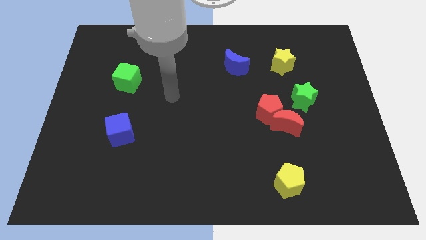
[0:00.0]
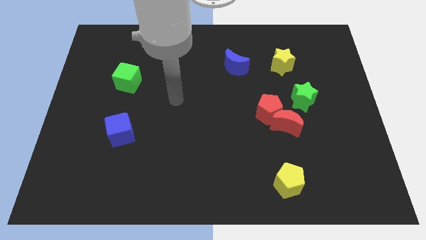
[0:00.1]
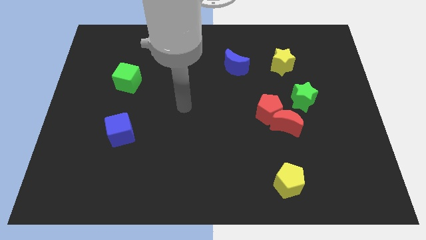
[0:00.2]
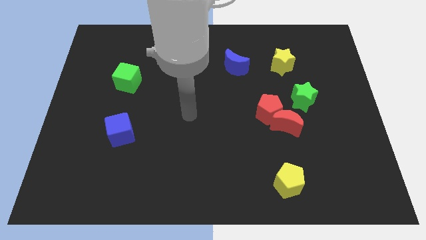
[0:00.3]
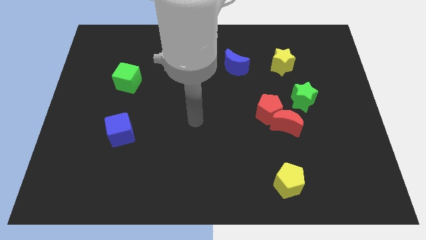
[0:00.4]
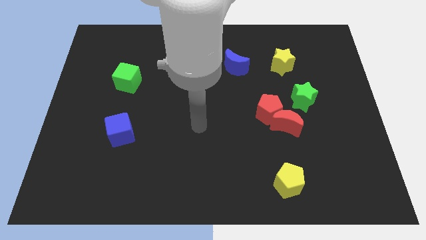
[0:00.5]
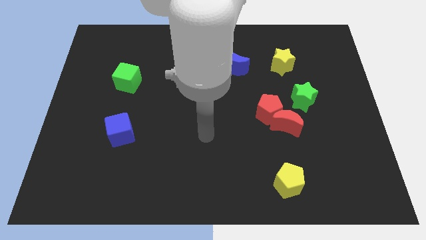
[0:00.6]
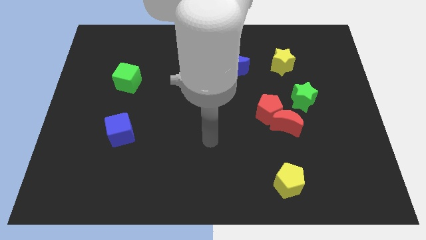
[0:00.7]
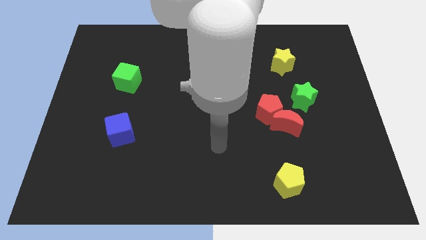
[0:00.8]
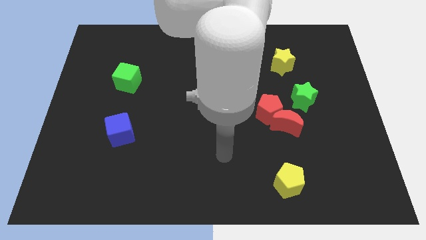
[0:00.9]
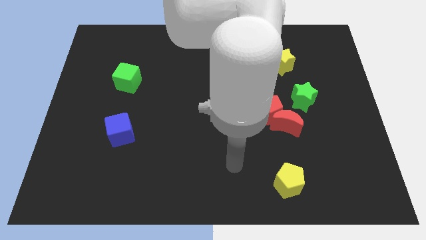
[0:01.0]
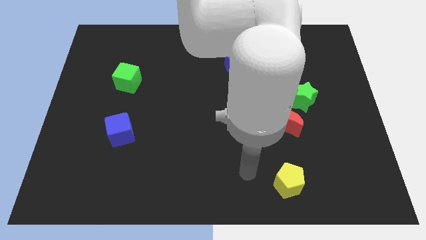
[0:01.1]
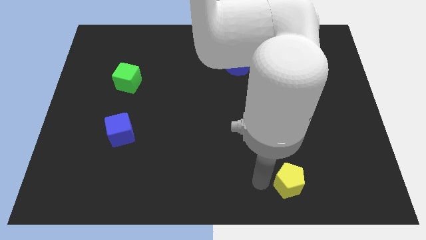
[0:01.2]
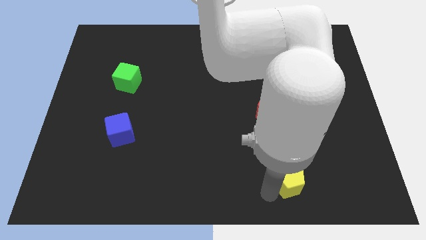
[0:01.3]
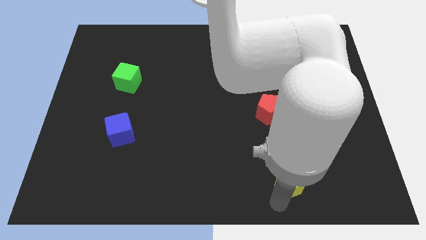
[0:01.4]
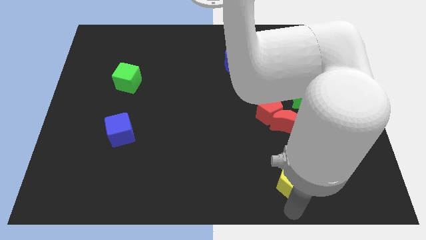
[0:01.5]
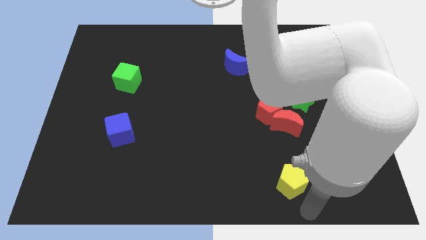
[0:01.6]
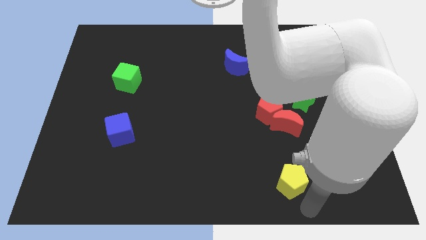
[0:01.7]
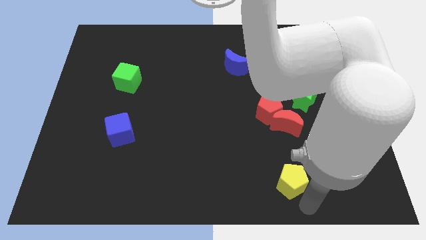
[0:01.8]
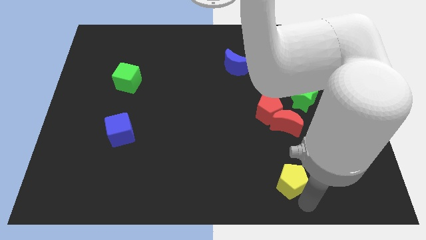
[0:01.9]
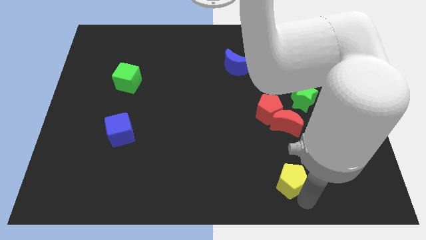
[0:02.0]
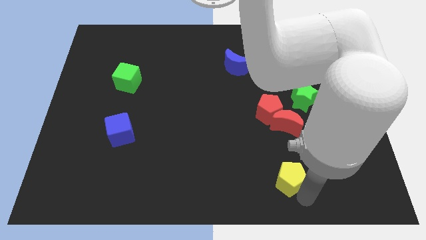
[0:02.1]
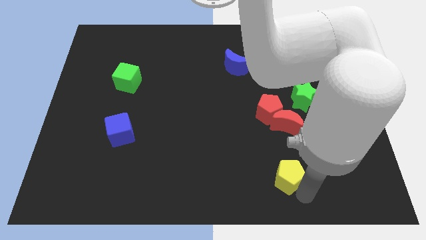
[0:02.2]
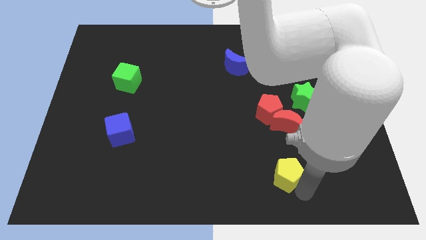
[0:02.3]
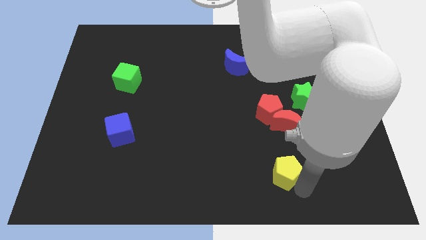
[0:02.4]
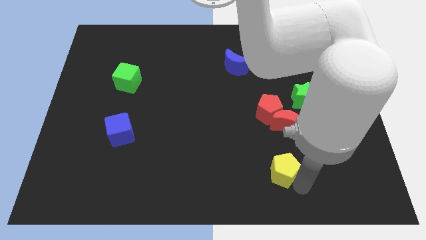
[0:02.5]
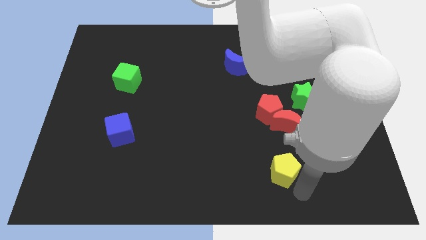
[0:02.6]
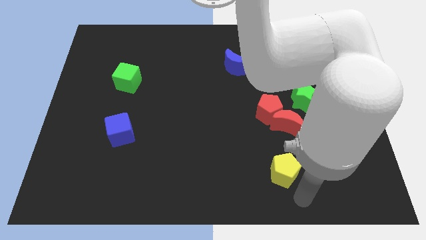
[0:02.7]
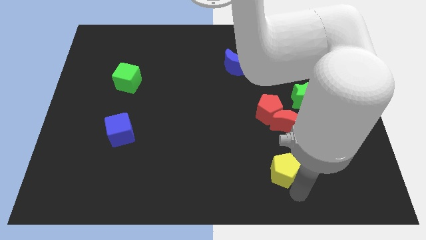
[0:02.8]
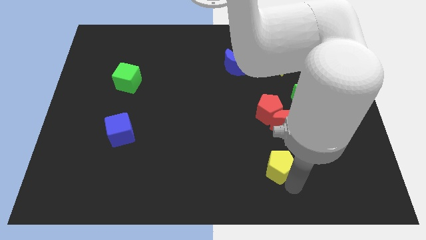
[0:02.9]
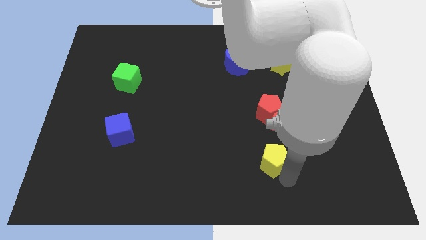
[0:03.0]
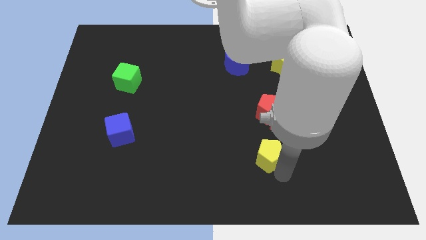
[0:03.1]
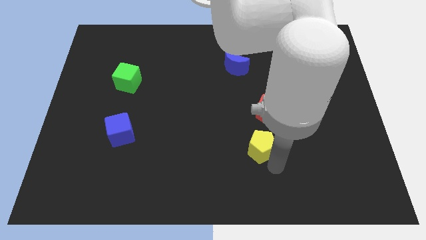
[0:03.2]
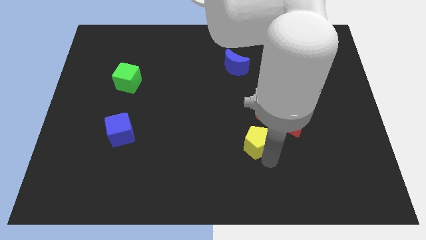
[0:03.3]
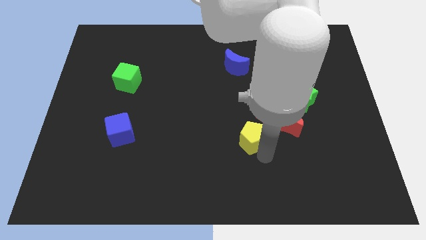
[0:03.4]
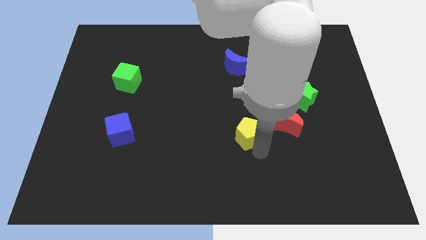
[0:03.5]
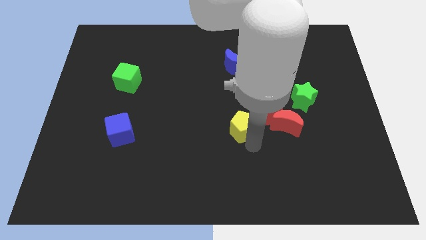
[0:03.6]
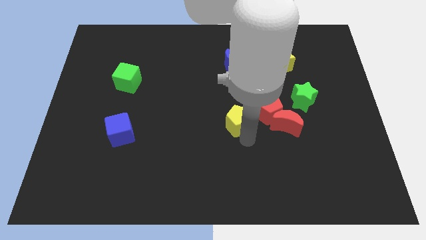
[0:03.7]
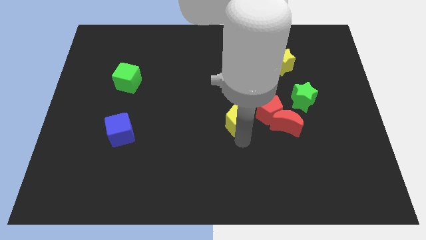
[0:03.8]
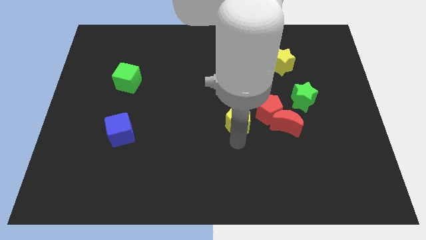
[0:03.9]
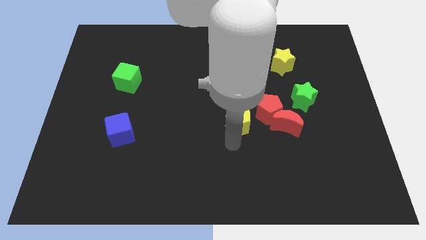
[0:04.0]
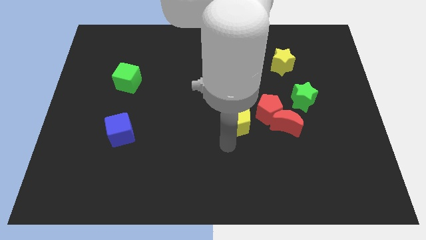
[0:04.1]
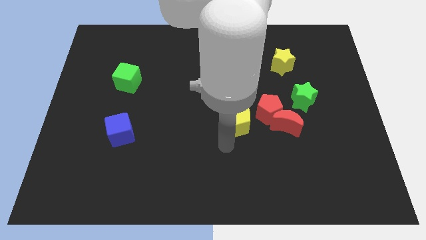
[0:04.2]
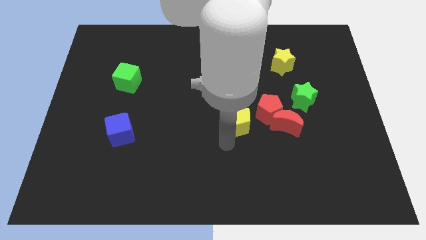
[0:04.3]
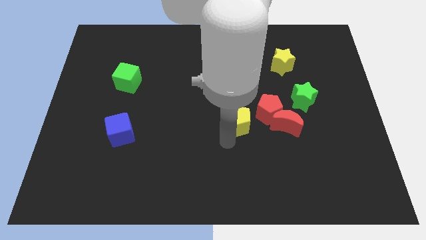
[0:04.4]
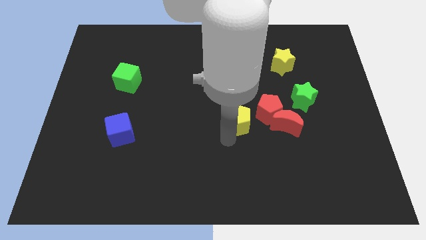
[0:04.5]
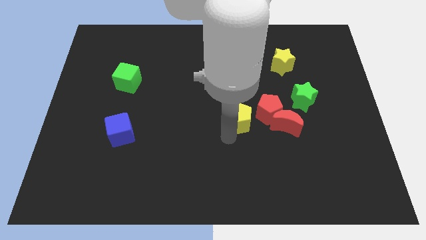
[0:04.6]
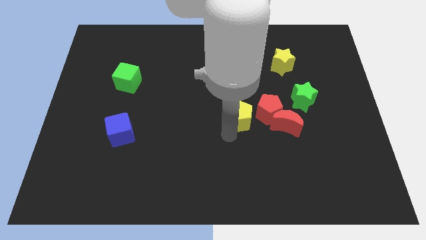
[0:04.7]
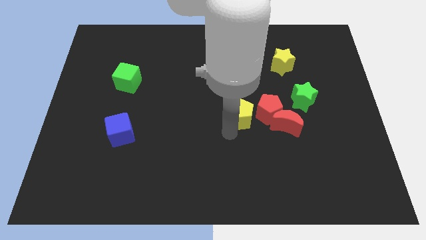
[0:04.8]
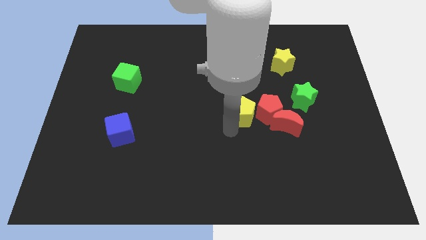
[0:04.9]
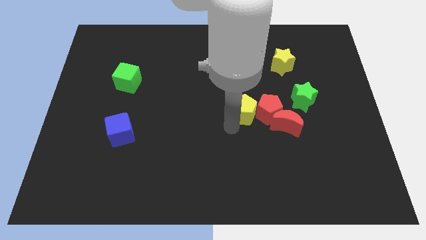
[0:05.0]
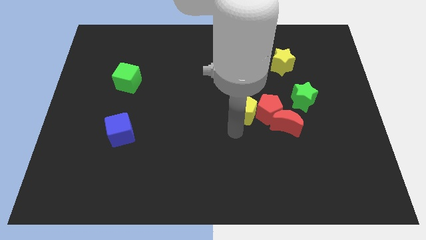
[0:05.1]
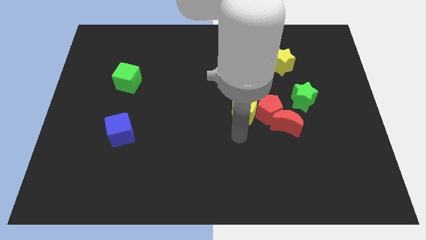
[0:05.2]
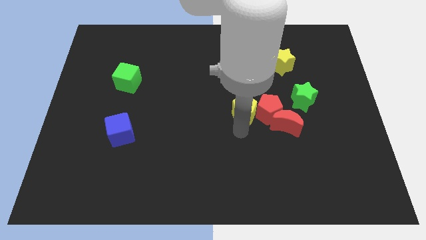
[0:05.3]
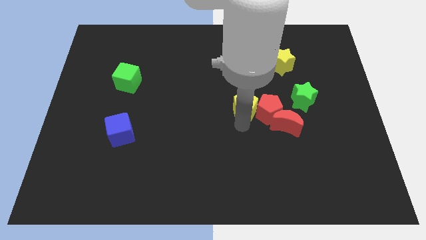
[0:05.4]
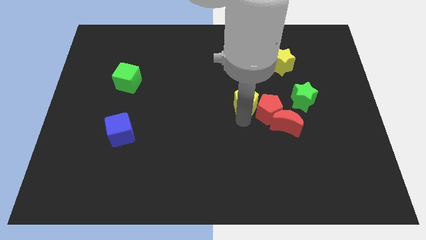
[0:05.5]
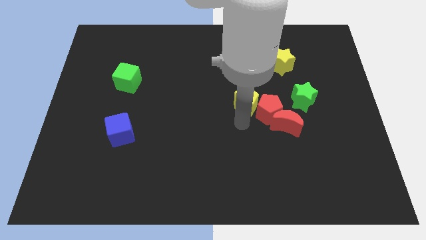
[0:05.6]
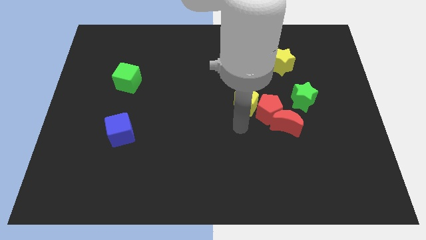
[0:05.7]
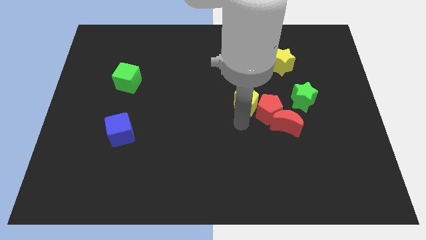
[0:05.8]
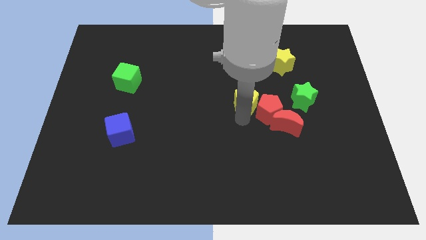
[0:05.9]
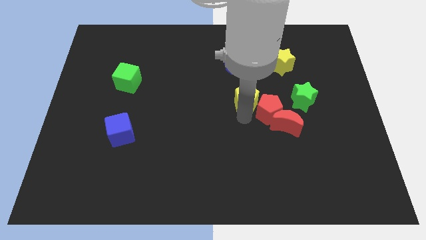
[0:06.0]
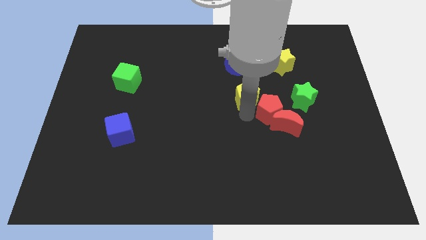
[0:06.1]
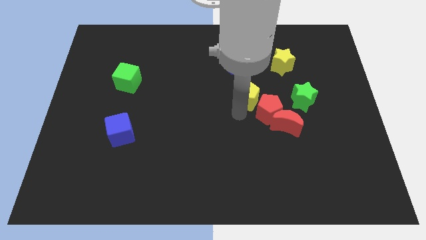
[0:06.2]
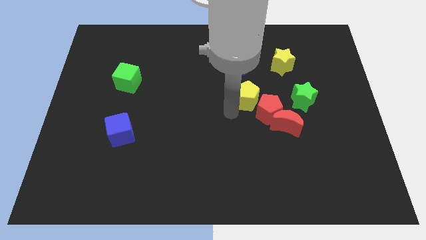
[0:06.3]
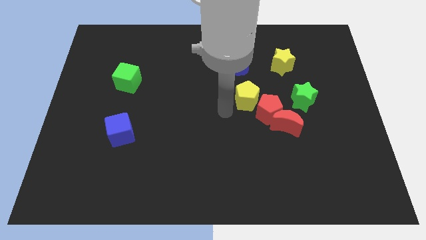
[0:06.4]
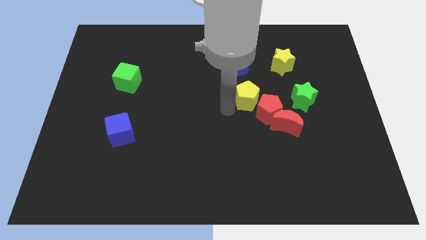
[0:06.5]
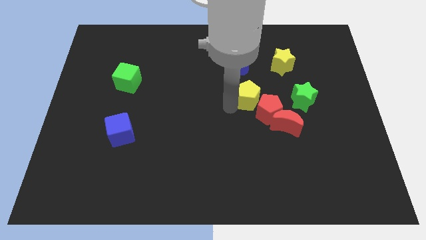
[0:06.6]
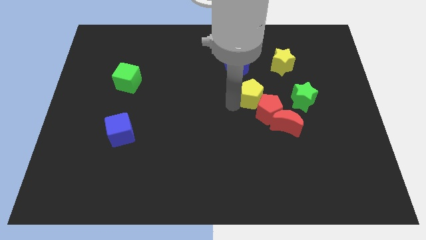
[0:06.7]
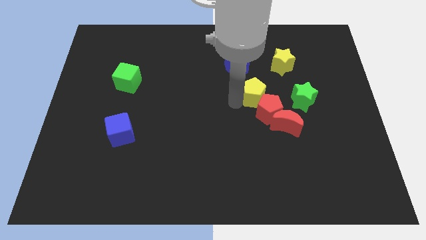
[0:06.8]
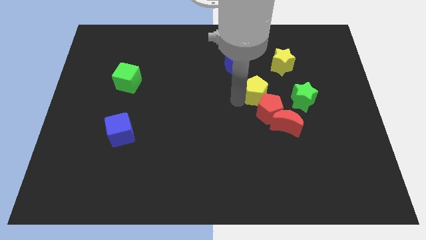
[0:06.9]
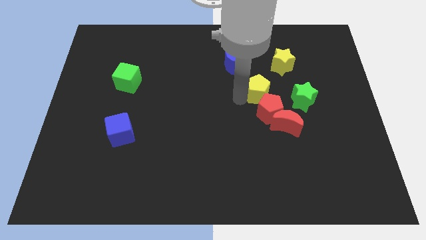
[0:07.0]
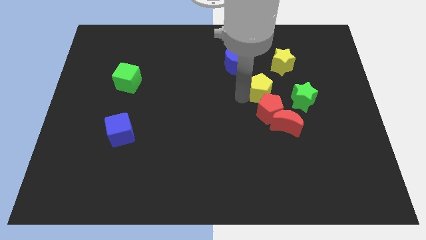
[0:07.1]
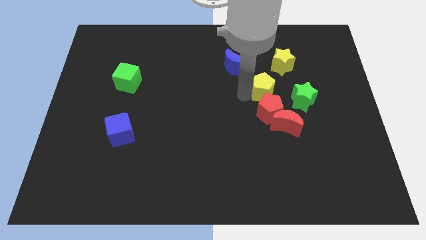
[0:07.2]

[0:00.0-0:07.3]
push the yellow pentagon diagonally up and to the left of the green star
